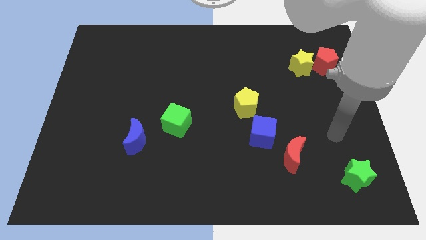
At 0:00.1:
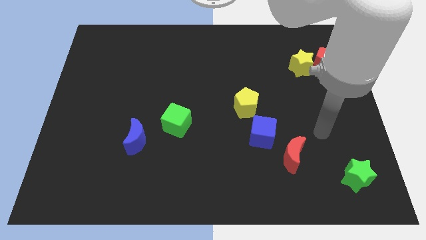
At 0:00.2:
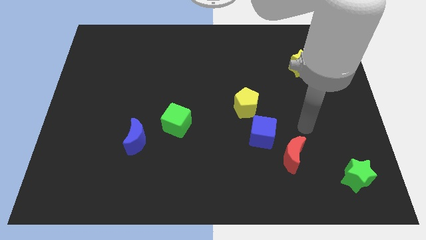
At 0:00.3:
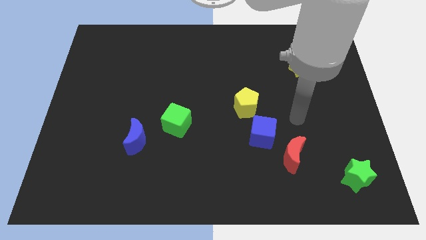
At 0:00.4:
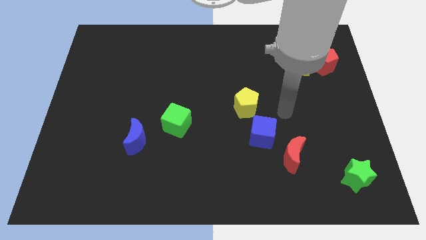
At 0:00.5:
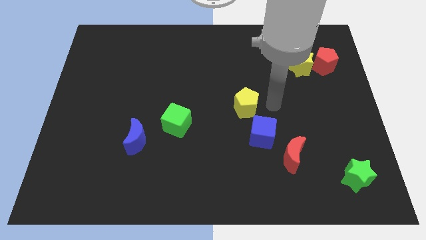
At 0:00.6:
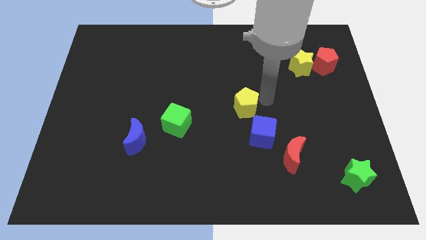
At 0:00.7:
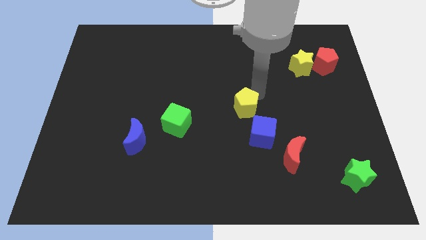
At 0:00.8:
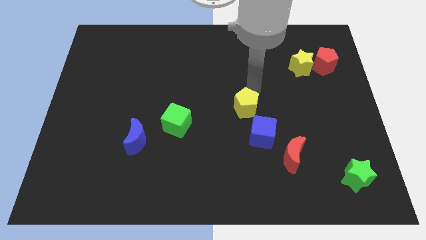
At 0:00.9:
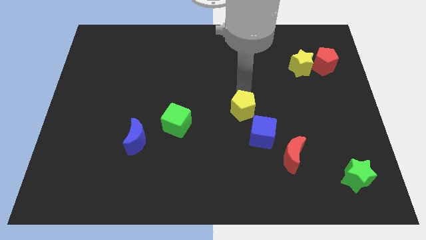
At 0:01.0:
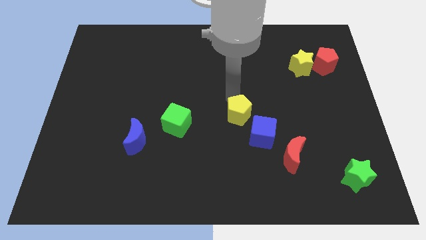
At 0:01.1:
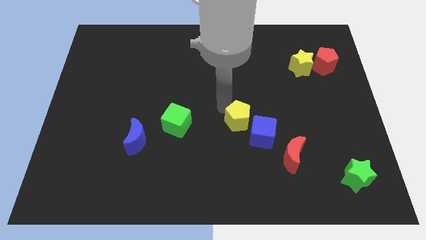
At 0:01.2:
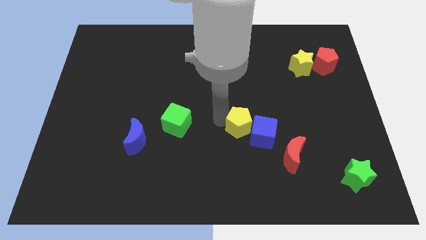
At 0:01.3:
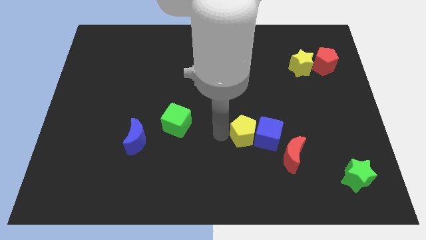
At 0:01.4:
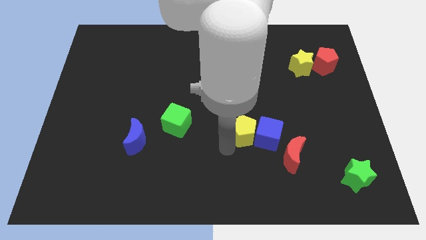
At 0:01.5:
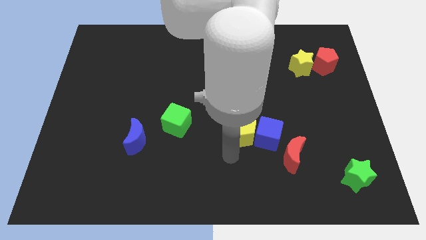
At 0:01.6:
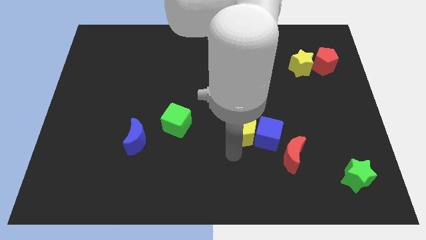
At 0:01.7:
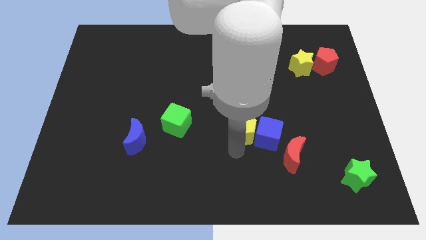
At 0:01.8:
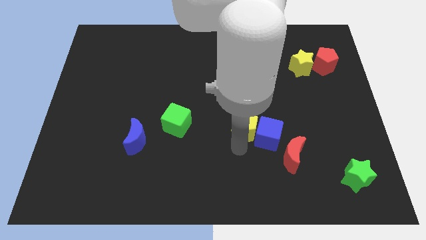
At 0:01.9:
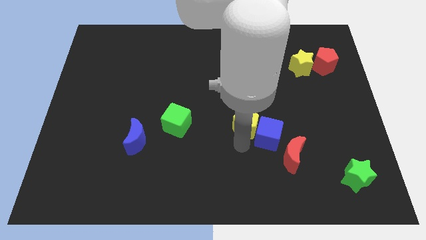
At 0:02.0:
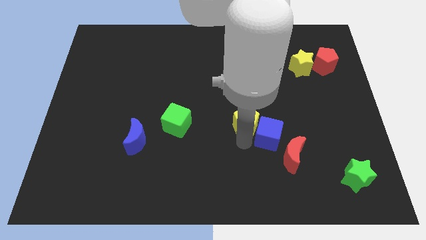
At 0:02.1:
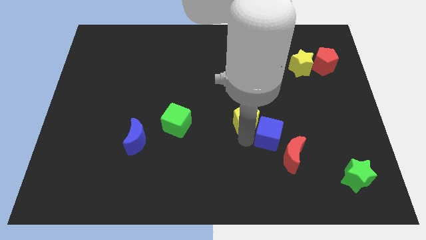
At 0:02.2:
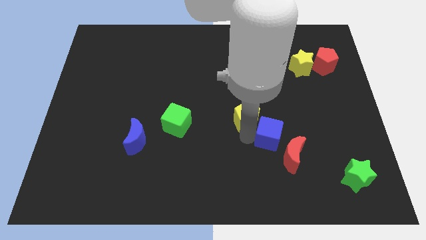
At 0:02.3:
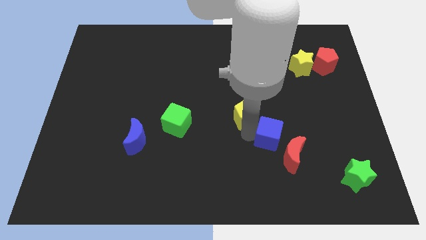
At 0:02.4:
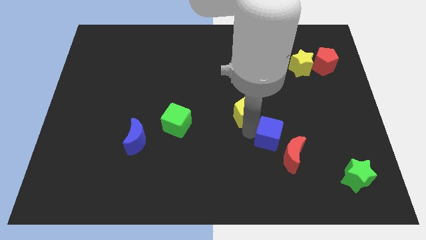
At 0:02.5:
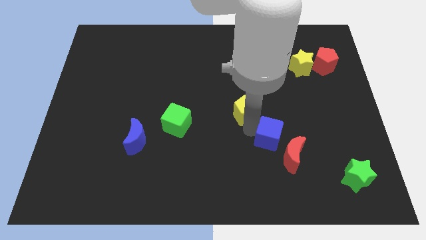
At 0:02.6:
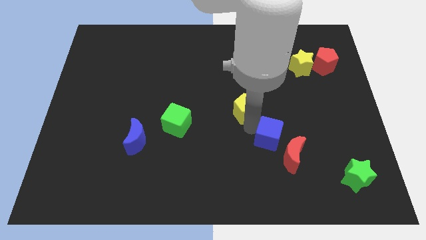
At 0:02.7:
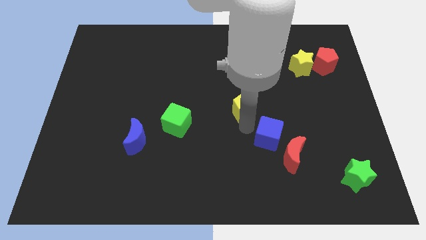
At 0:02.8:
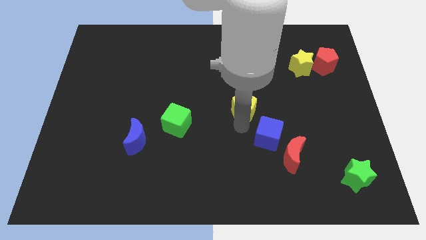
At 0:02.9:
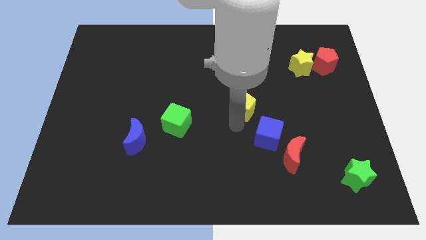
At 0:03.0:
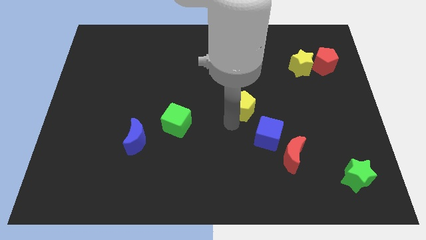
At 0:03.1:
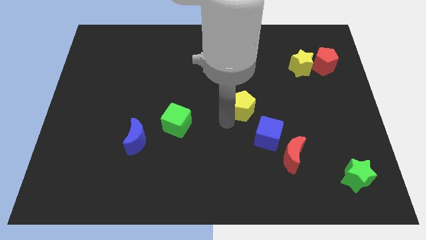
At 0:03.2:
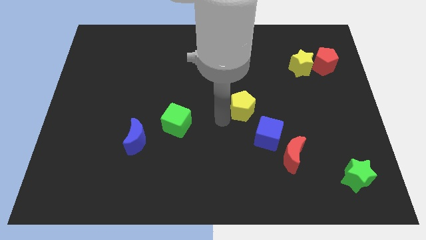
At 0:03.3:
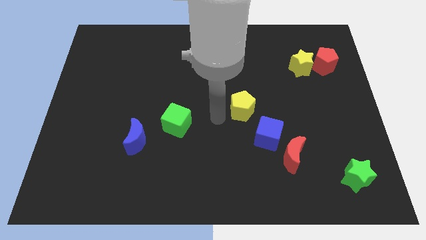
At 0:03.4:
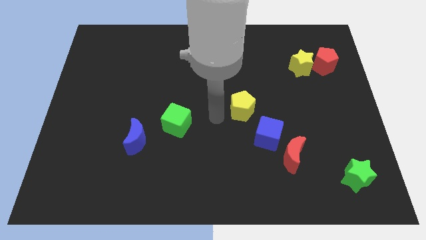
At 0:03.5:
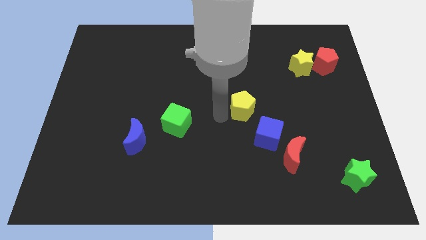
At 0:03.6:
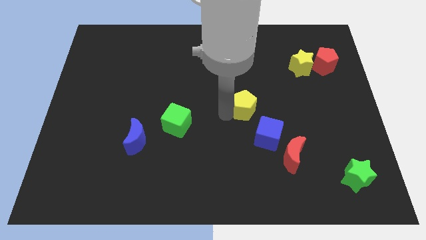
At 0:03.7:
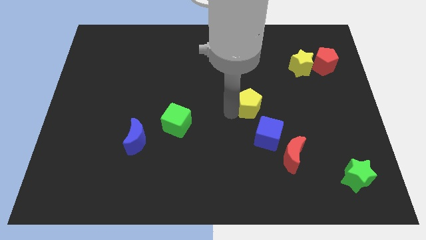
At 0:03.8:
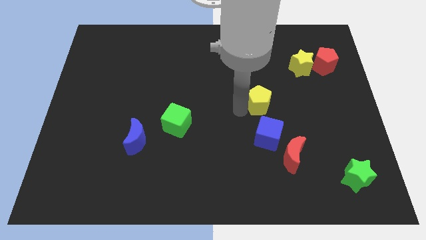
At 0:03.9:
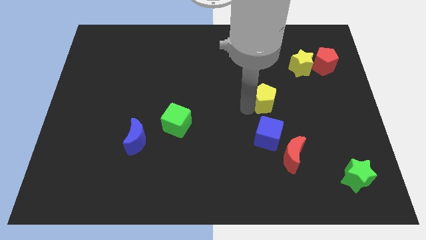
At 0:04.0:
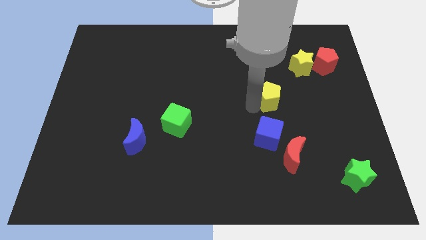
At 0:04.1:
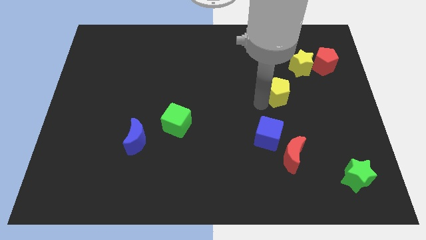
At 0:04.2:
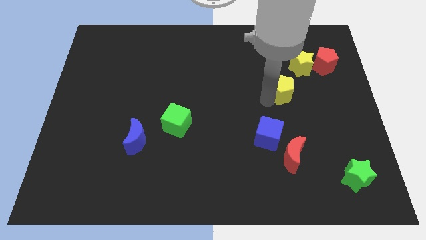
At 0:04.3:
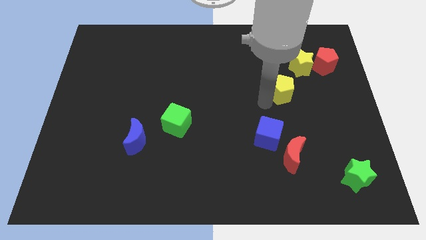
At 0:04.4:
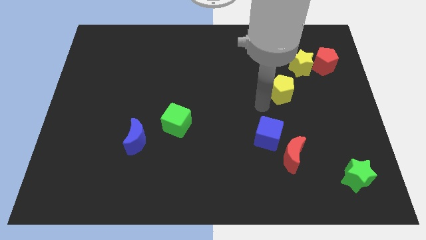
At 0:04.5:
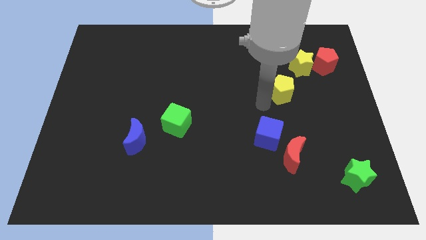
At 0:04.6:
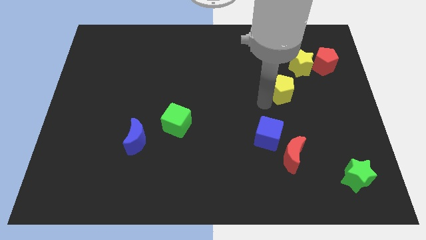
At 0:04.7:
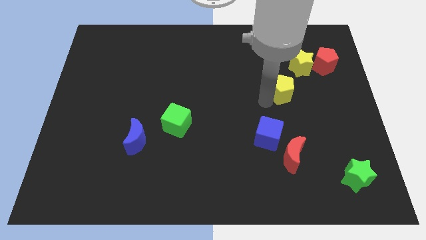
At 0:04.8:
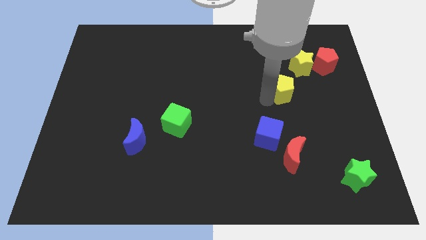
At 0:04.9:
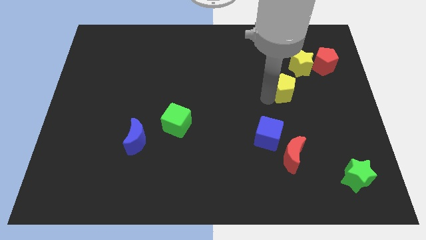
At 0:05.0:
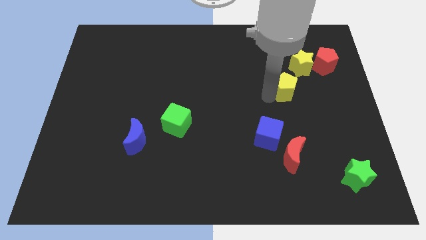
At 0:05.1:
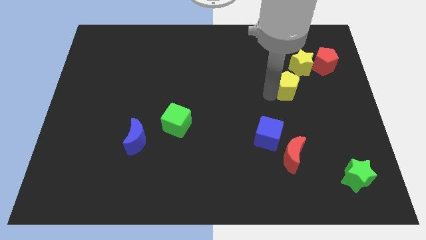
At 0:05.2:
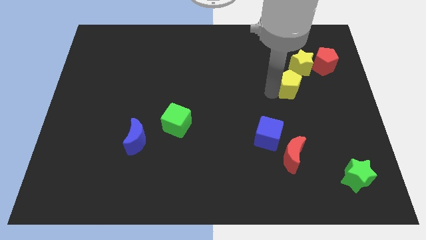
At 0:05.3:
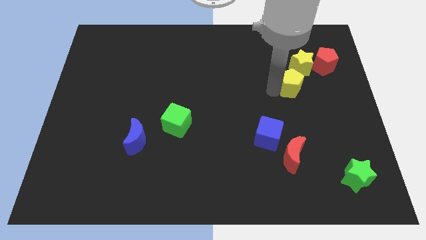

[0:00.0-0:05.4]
slide the yellow pentagon to the bottom left side of the red pentagon

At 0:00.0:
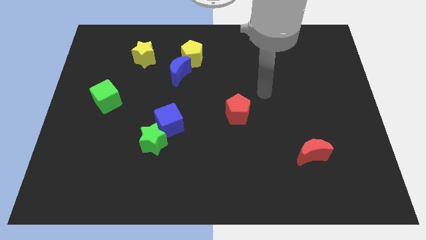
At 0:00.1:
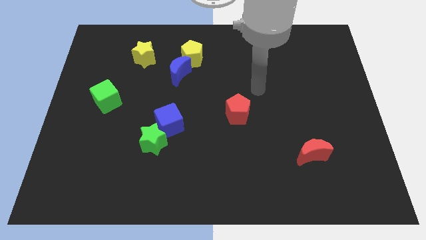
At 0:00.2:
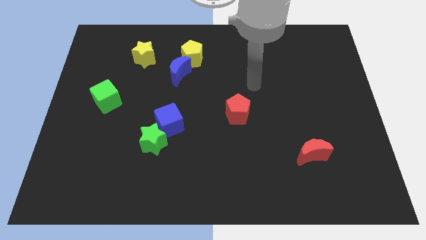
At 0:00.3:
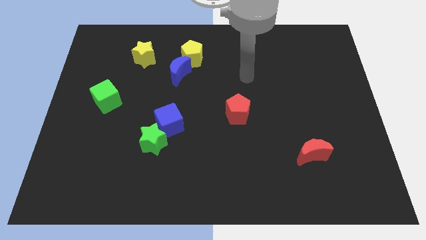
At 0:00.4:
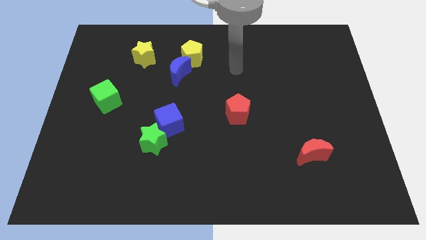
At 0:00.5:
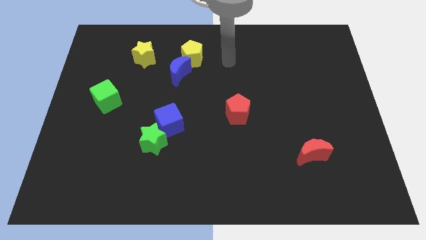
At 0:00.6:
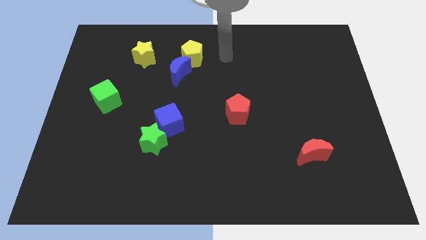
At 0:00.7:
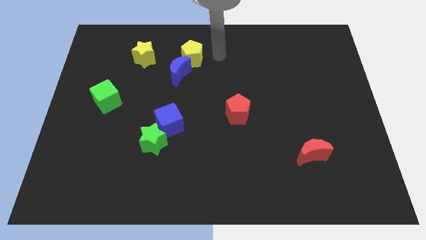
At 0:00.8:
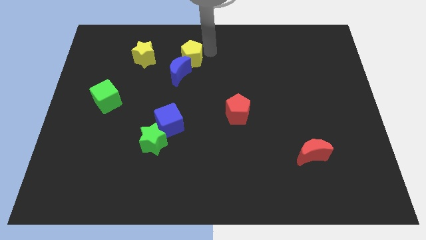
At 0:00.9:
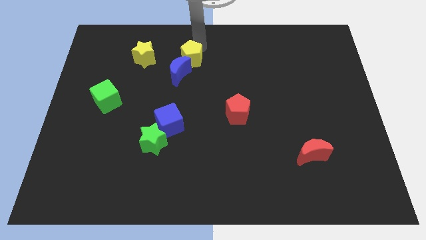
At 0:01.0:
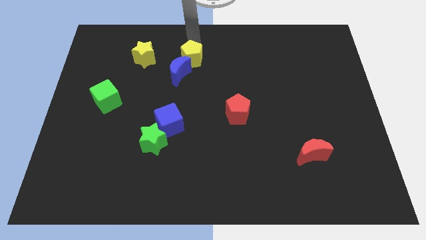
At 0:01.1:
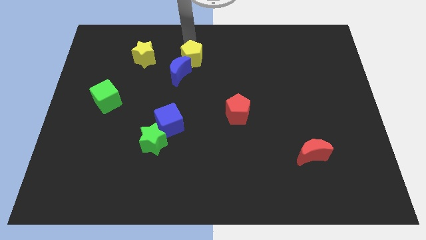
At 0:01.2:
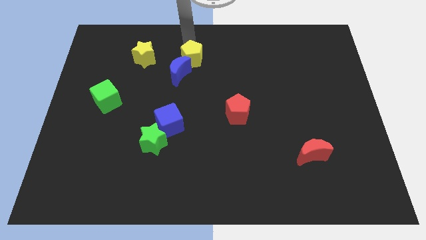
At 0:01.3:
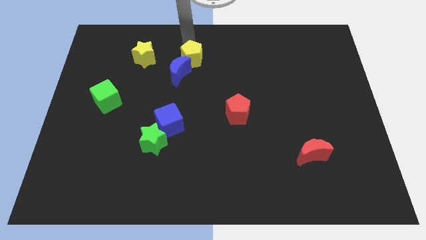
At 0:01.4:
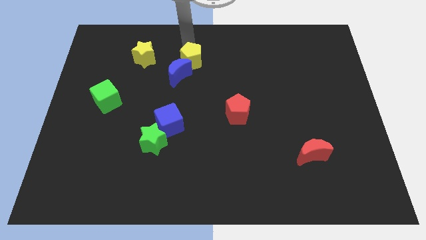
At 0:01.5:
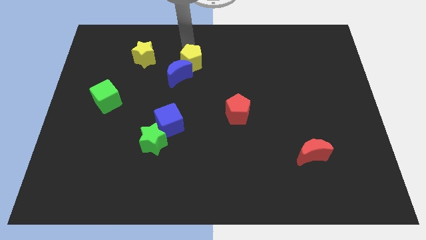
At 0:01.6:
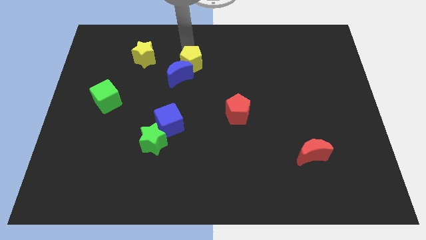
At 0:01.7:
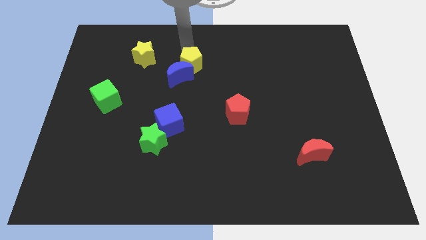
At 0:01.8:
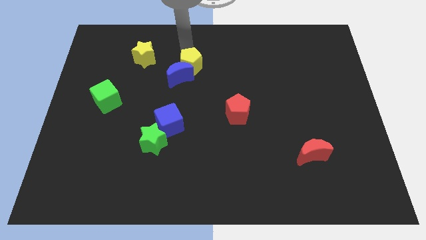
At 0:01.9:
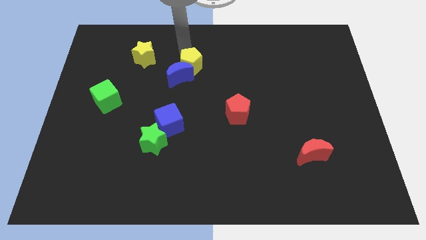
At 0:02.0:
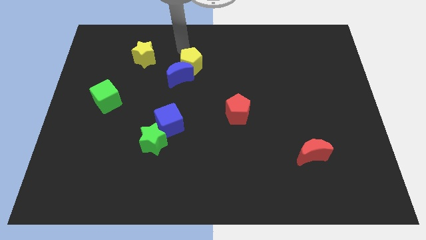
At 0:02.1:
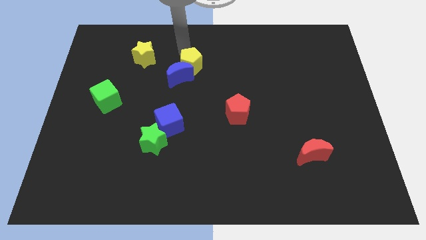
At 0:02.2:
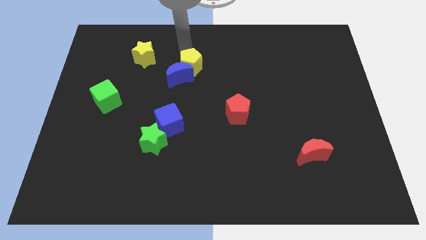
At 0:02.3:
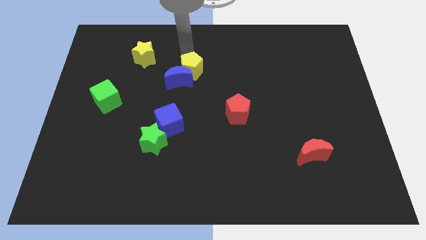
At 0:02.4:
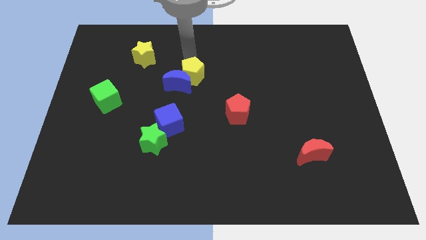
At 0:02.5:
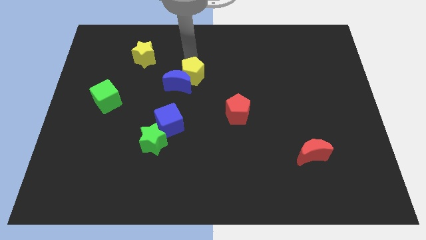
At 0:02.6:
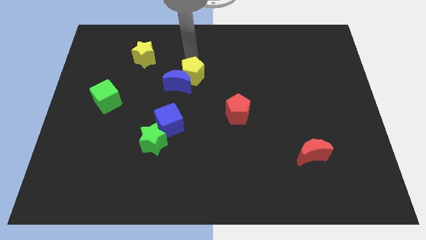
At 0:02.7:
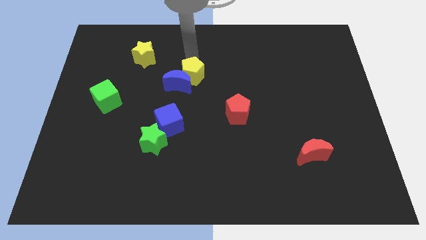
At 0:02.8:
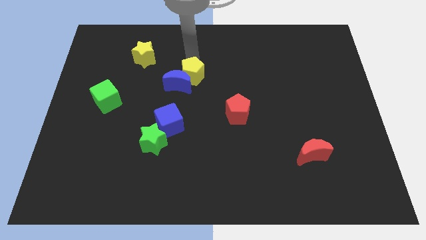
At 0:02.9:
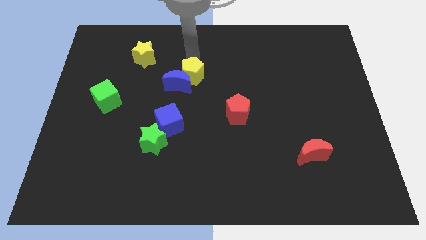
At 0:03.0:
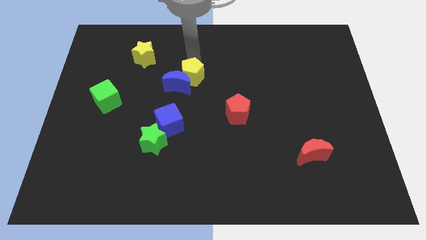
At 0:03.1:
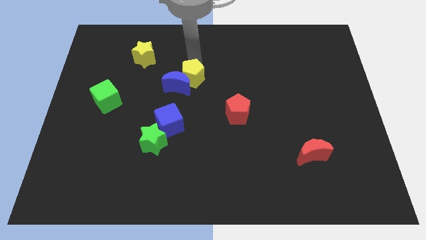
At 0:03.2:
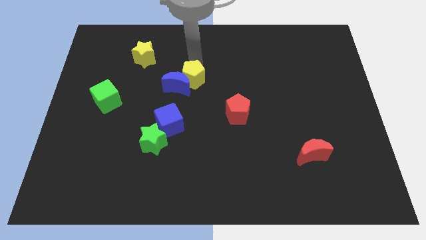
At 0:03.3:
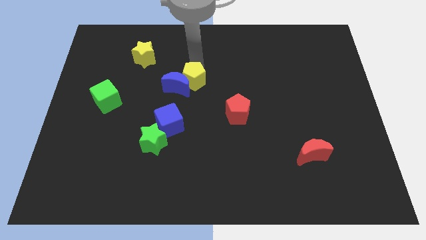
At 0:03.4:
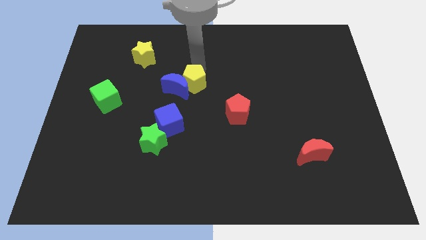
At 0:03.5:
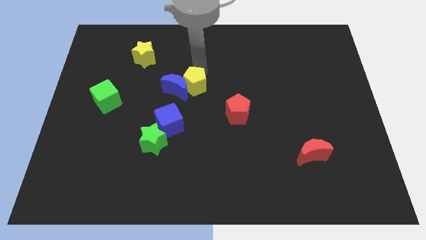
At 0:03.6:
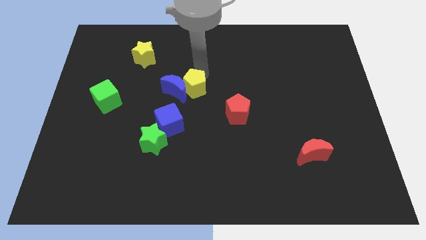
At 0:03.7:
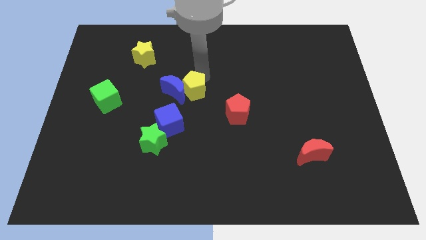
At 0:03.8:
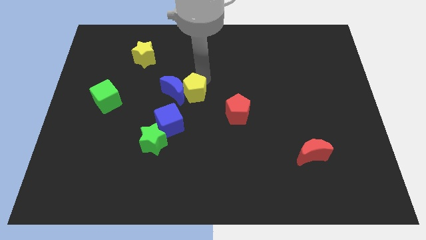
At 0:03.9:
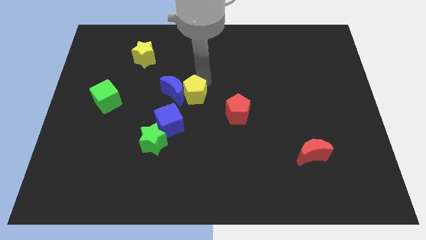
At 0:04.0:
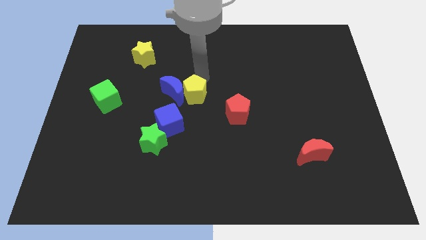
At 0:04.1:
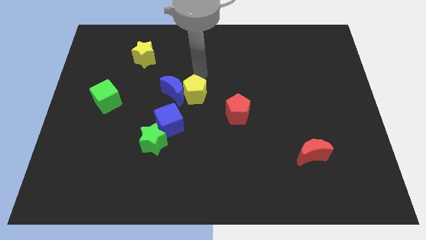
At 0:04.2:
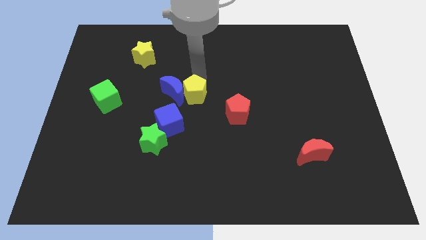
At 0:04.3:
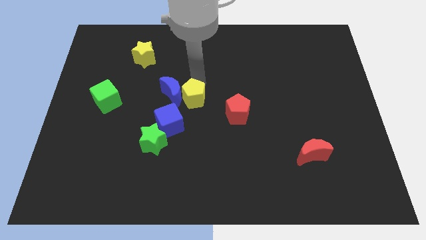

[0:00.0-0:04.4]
slide the yellow pentagon to the left side of the red pentagon
